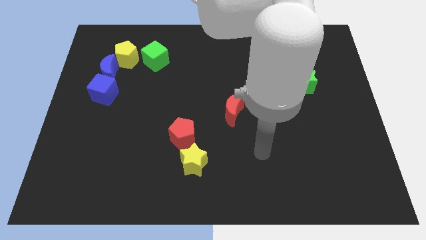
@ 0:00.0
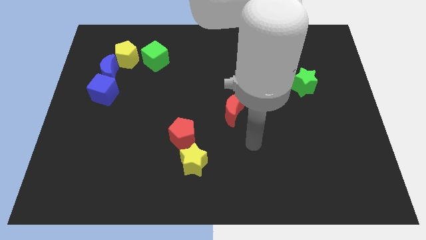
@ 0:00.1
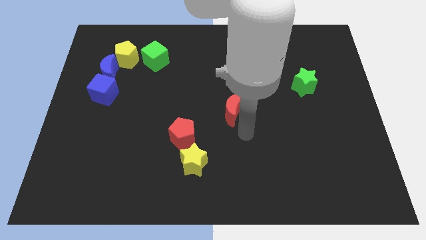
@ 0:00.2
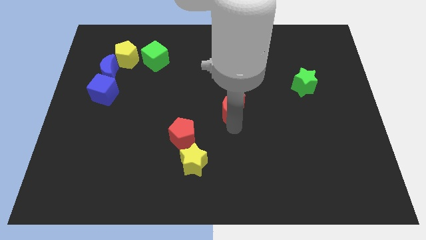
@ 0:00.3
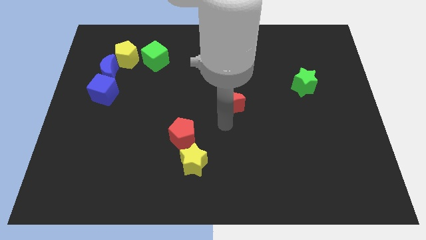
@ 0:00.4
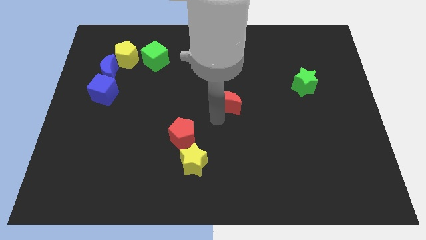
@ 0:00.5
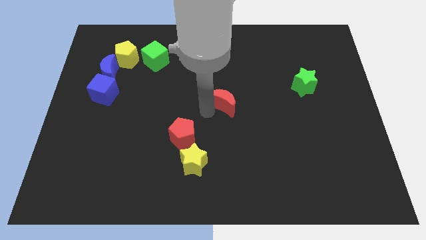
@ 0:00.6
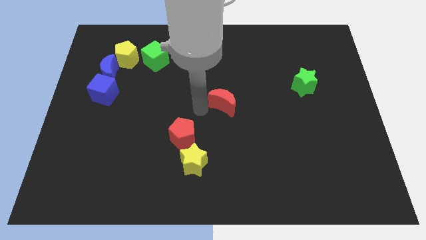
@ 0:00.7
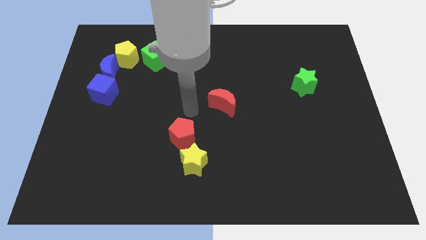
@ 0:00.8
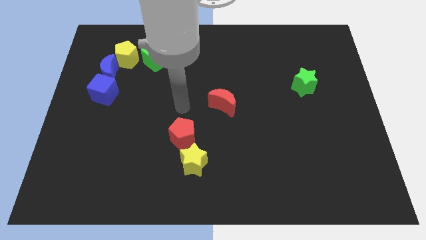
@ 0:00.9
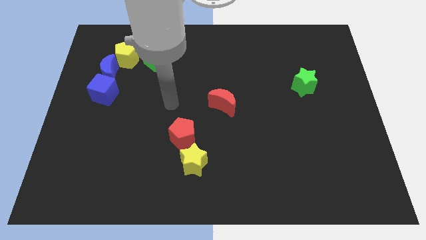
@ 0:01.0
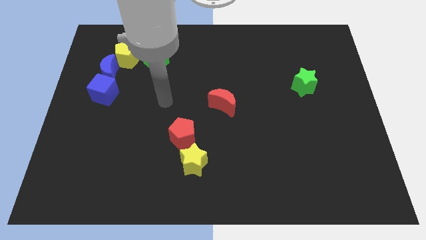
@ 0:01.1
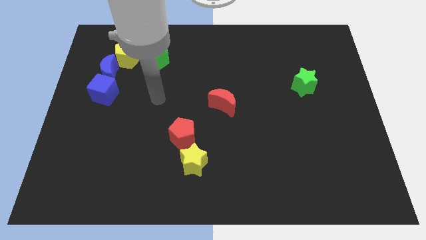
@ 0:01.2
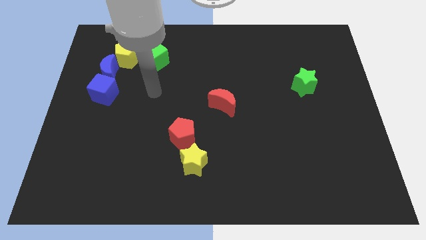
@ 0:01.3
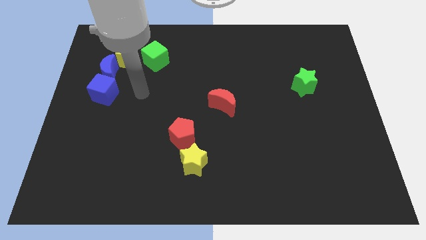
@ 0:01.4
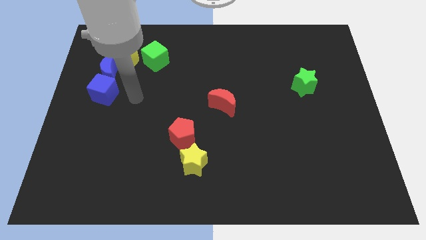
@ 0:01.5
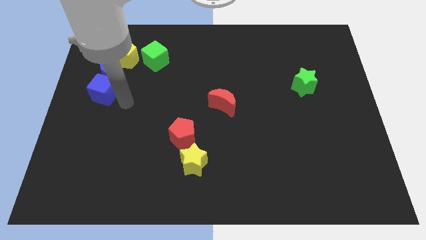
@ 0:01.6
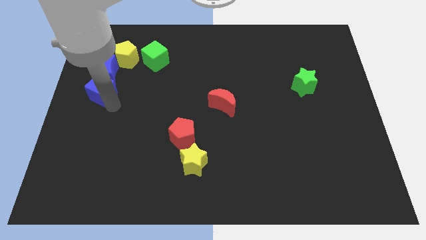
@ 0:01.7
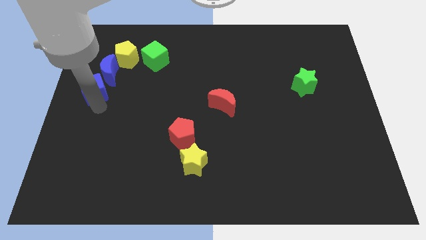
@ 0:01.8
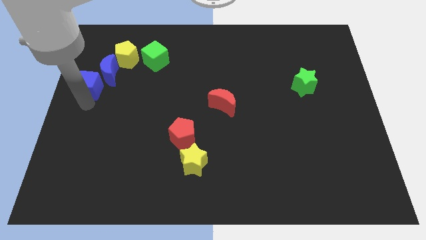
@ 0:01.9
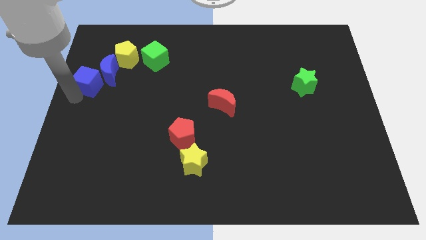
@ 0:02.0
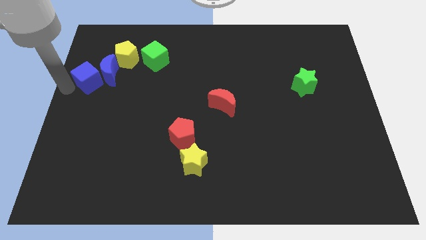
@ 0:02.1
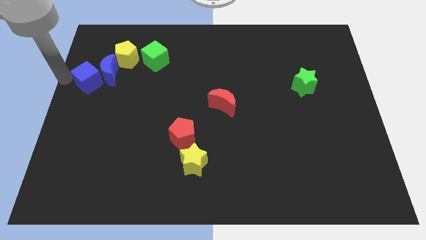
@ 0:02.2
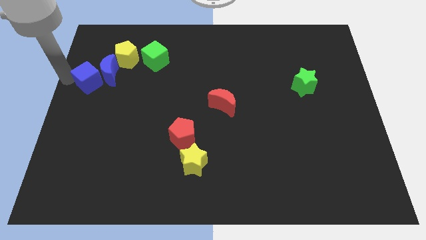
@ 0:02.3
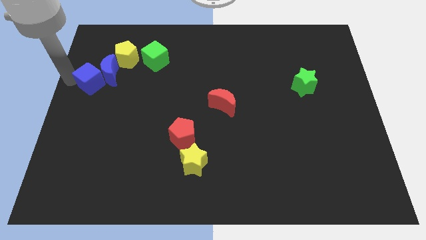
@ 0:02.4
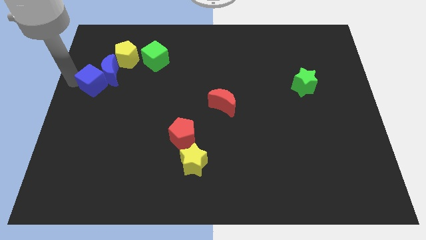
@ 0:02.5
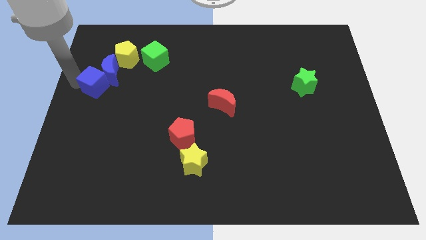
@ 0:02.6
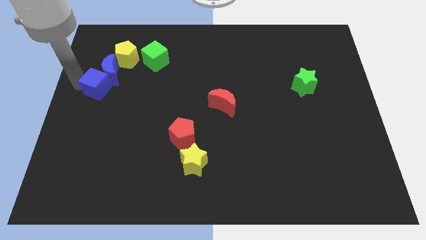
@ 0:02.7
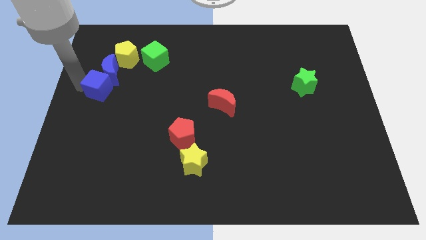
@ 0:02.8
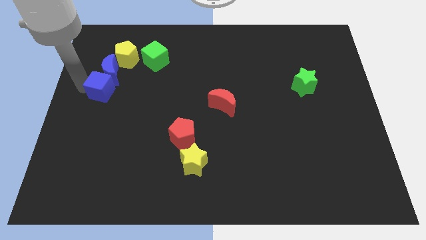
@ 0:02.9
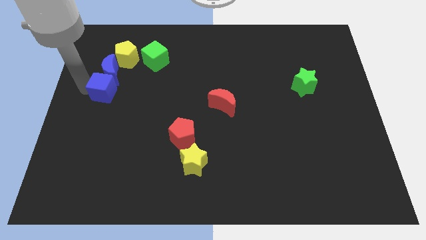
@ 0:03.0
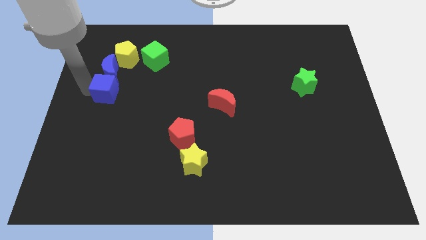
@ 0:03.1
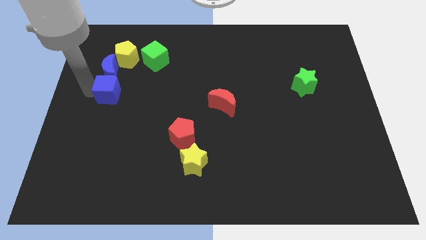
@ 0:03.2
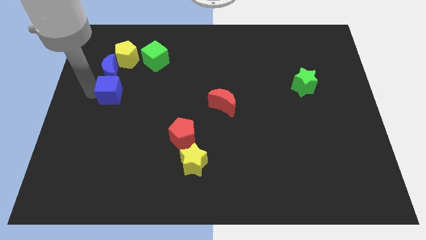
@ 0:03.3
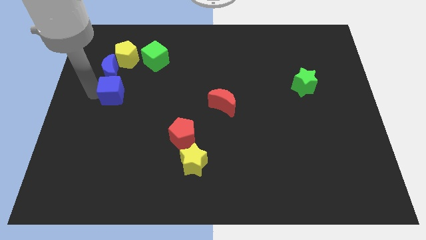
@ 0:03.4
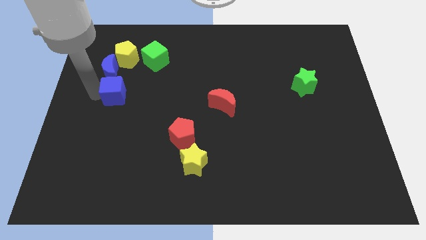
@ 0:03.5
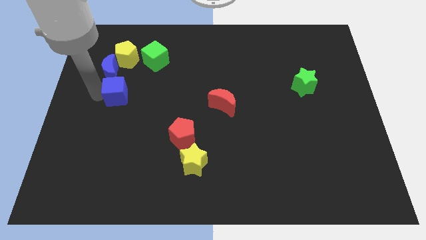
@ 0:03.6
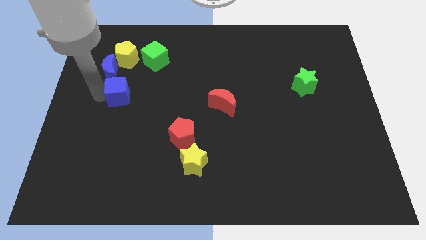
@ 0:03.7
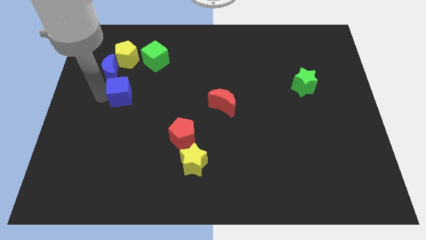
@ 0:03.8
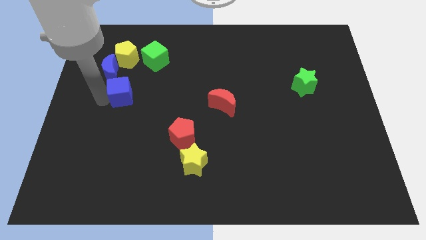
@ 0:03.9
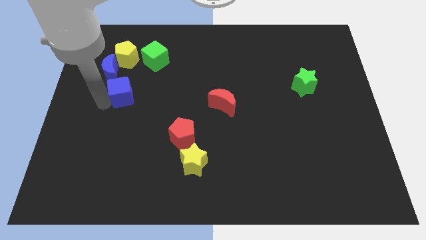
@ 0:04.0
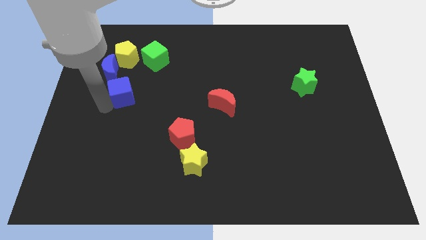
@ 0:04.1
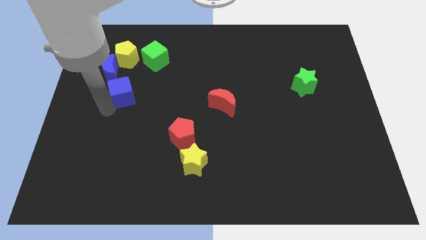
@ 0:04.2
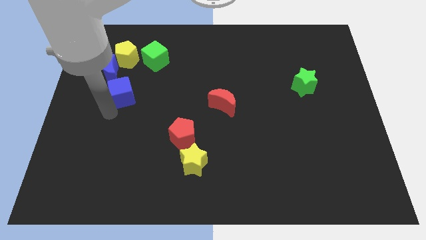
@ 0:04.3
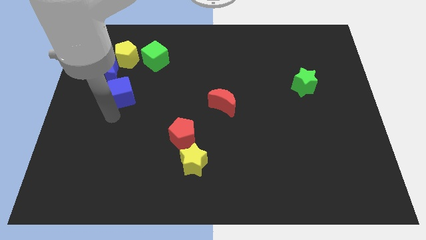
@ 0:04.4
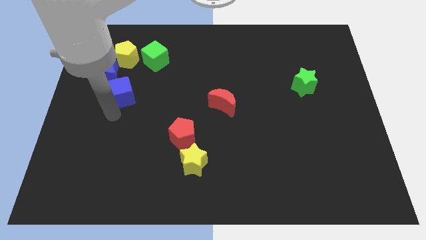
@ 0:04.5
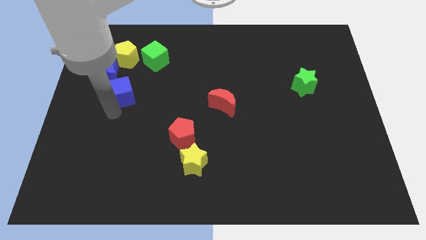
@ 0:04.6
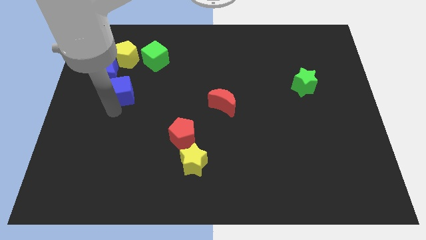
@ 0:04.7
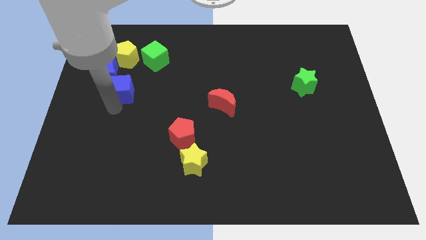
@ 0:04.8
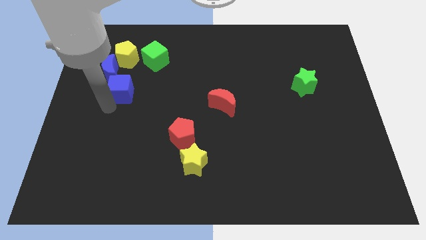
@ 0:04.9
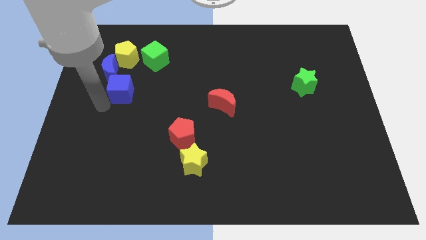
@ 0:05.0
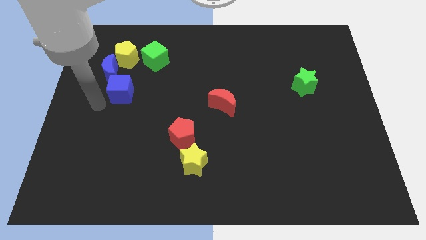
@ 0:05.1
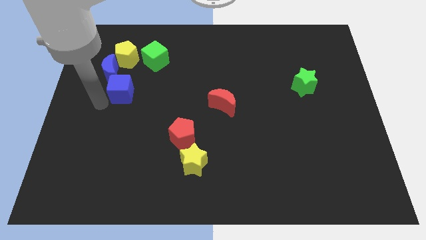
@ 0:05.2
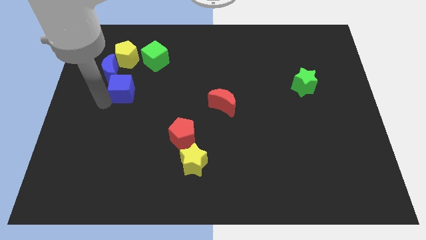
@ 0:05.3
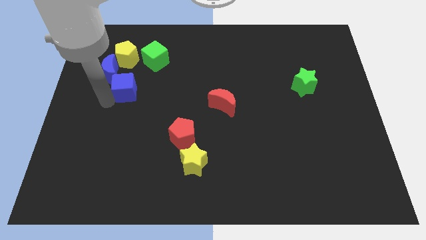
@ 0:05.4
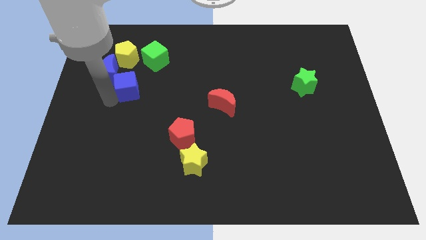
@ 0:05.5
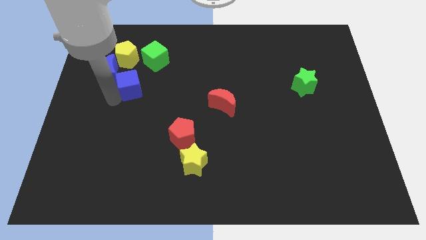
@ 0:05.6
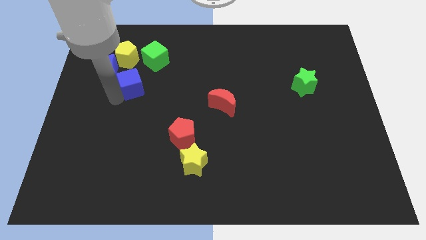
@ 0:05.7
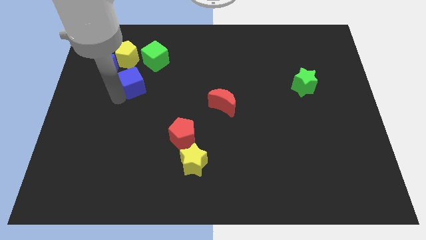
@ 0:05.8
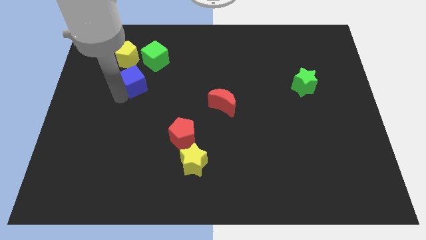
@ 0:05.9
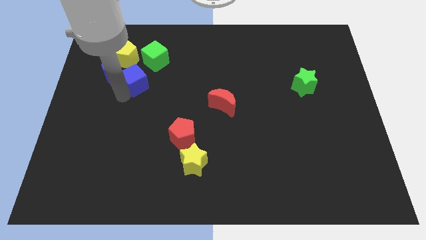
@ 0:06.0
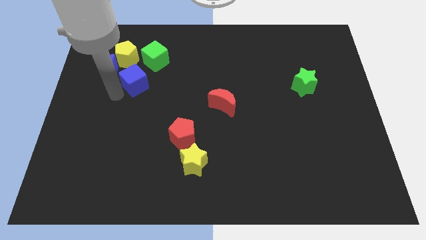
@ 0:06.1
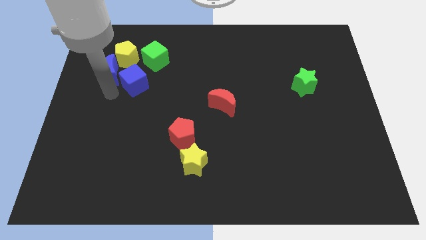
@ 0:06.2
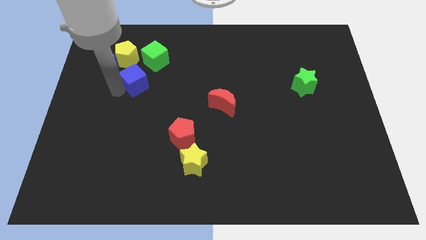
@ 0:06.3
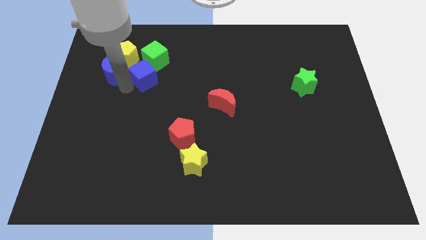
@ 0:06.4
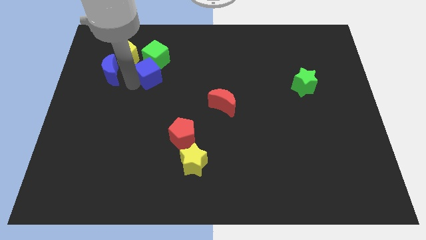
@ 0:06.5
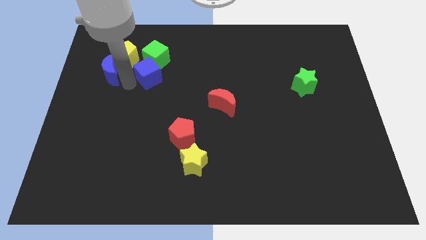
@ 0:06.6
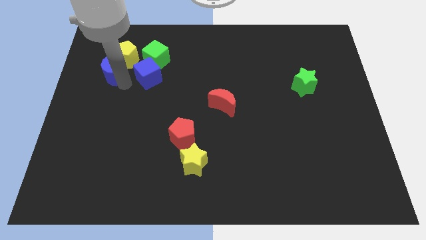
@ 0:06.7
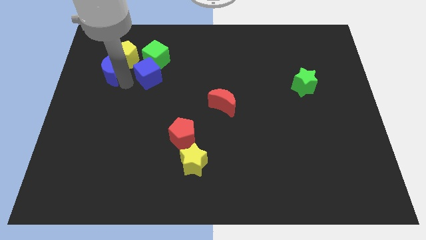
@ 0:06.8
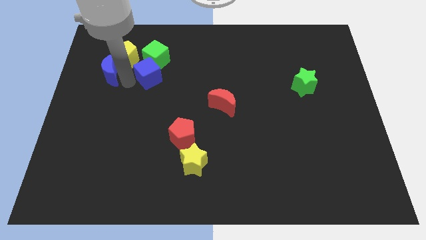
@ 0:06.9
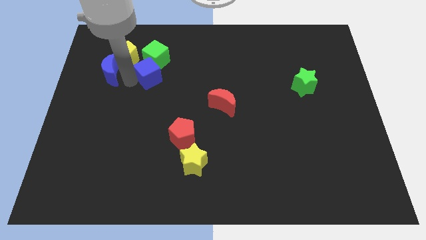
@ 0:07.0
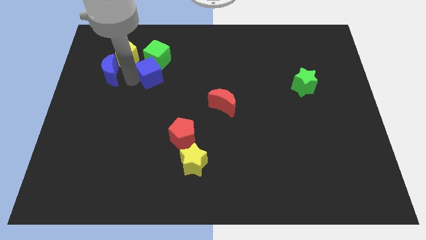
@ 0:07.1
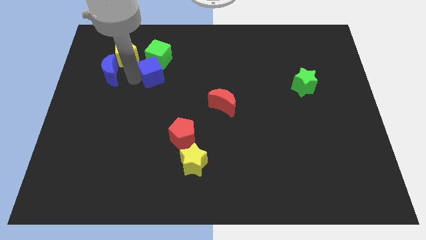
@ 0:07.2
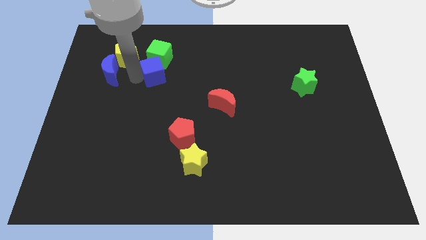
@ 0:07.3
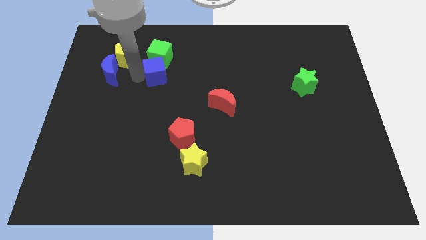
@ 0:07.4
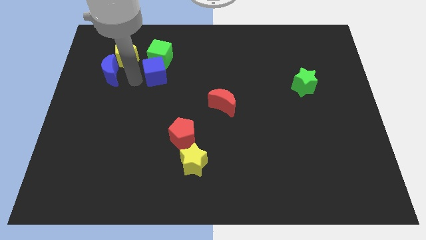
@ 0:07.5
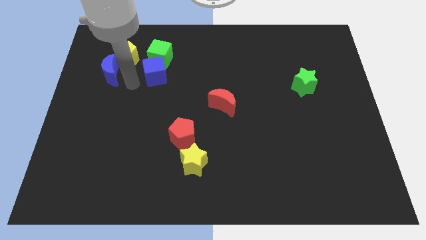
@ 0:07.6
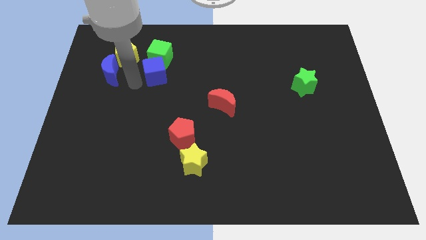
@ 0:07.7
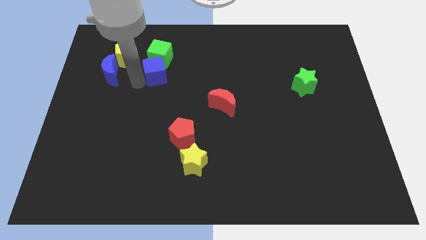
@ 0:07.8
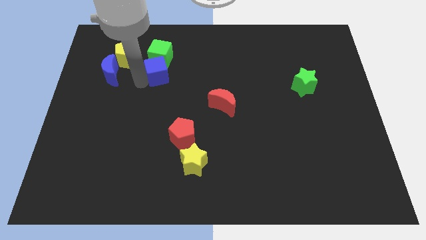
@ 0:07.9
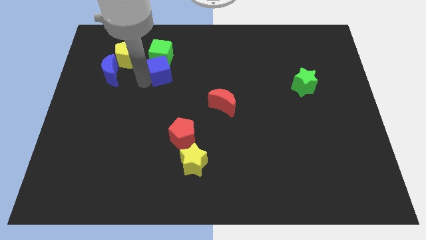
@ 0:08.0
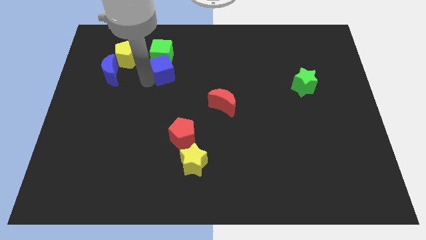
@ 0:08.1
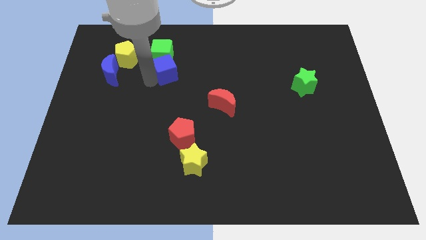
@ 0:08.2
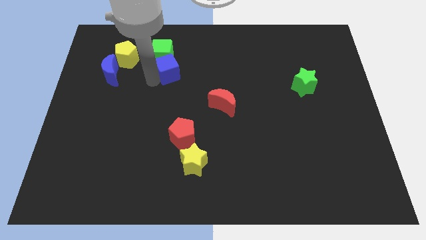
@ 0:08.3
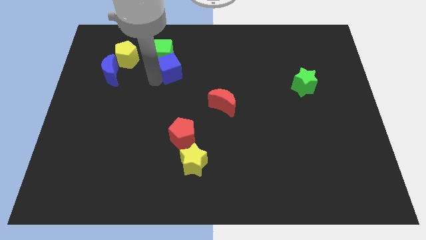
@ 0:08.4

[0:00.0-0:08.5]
move the blue cube to the right of the yellow pentagon
